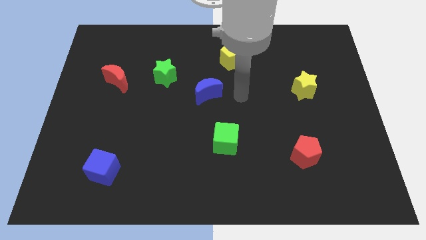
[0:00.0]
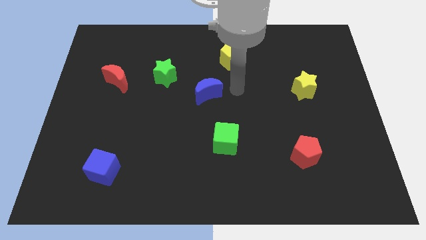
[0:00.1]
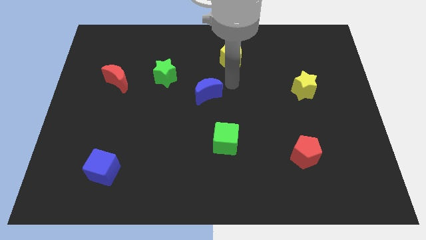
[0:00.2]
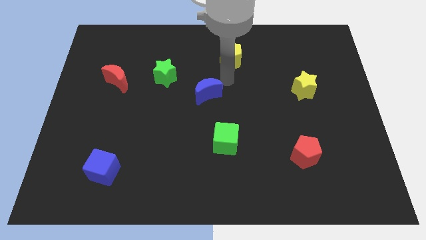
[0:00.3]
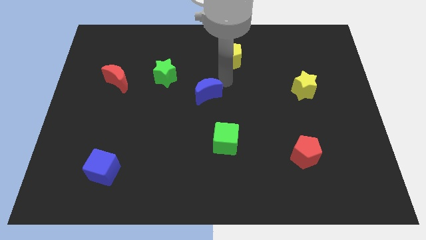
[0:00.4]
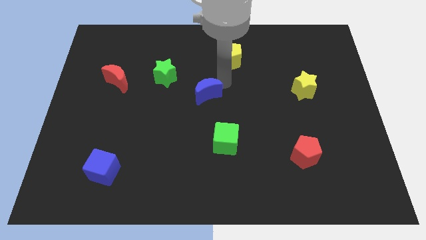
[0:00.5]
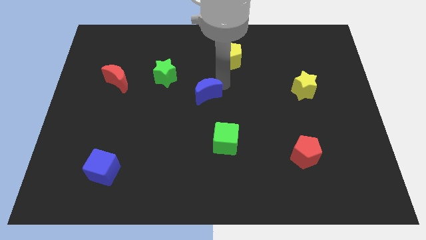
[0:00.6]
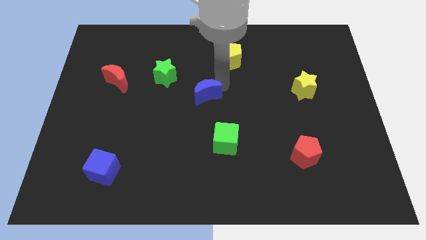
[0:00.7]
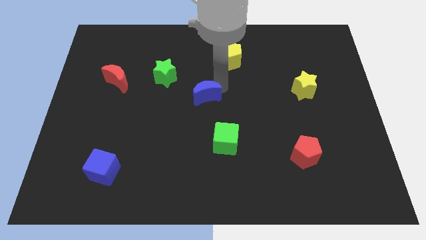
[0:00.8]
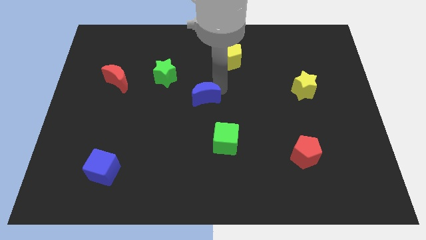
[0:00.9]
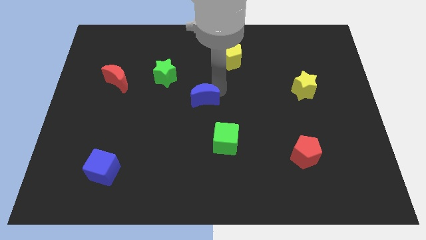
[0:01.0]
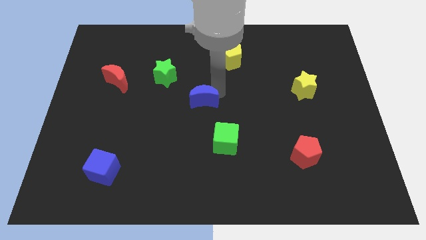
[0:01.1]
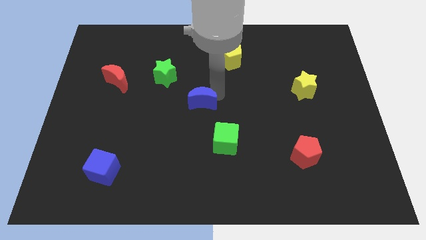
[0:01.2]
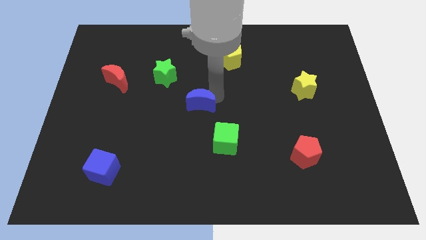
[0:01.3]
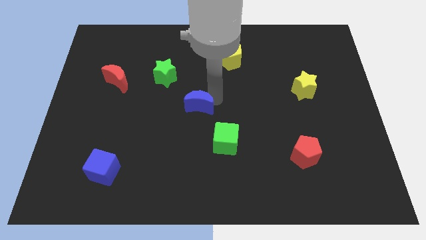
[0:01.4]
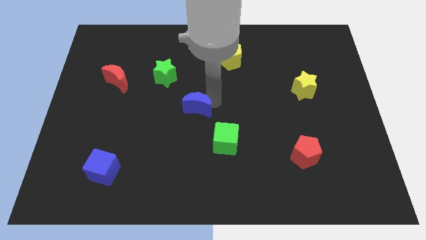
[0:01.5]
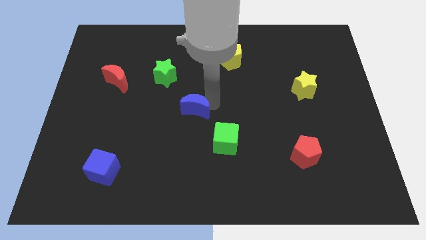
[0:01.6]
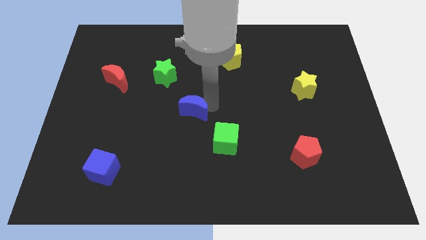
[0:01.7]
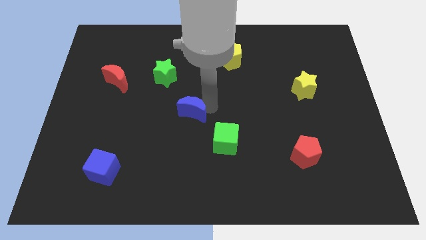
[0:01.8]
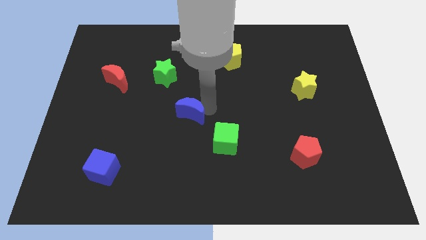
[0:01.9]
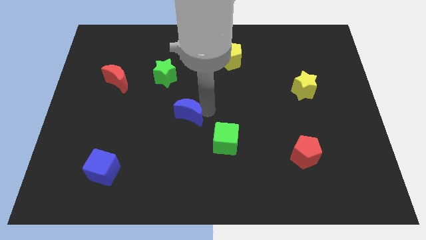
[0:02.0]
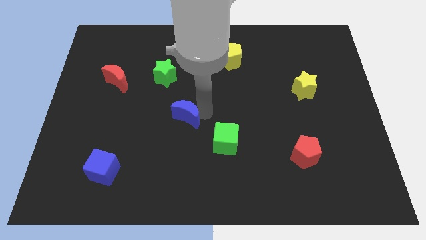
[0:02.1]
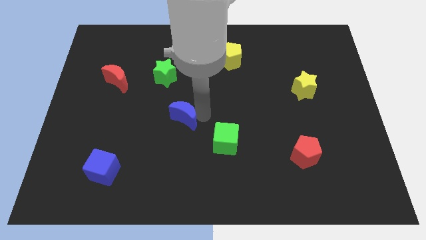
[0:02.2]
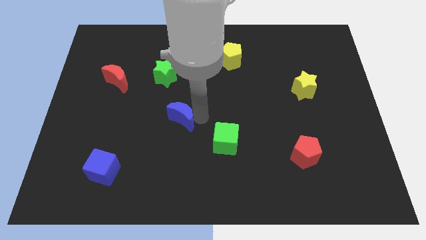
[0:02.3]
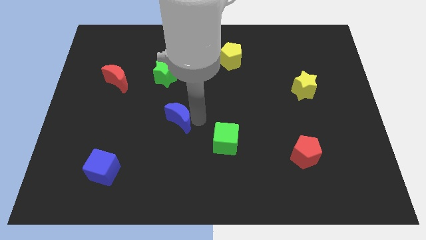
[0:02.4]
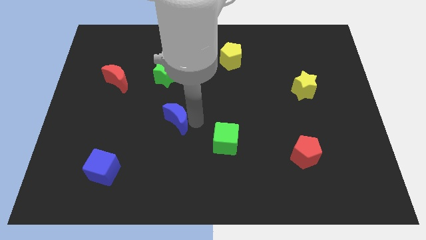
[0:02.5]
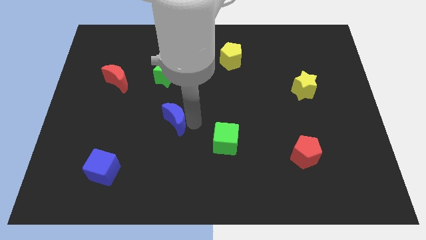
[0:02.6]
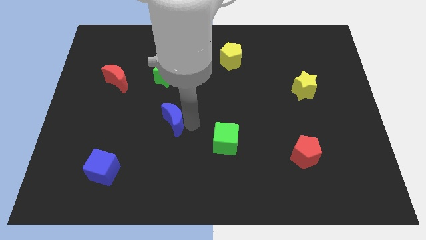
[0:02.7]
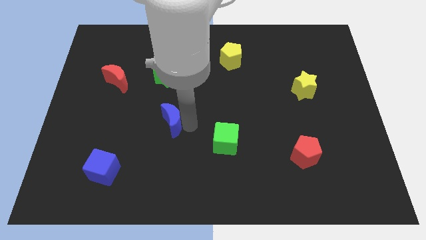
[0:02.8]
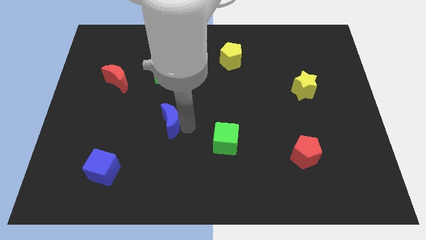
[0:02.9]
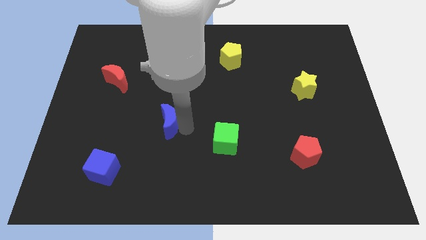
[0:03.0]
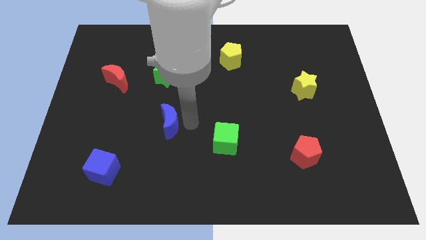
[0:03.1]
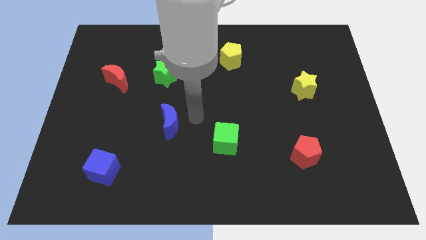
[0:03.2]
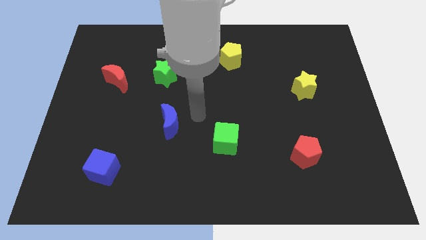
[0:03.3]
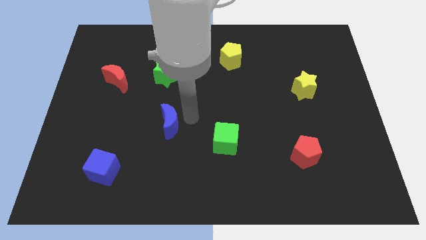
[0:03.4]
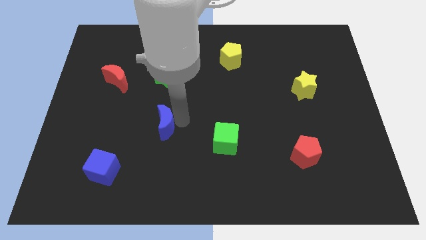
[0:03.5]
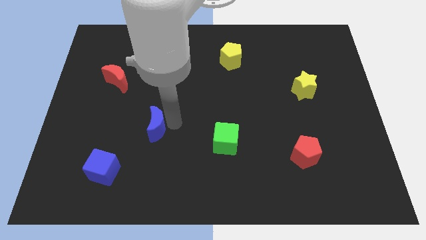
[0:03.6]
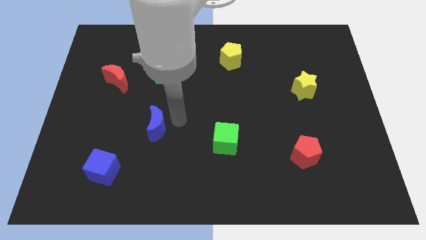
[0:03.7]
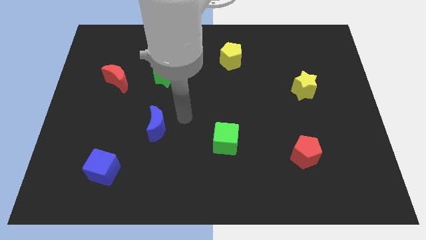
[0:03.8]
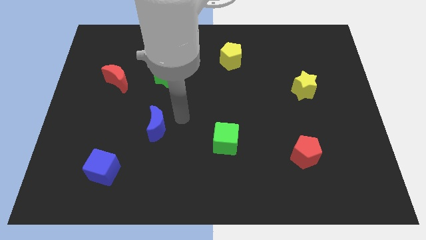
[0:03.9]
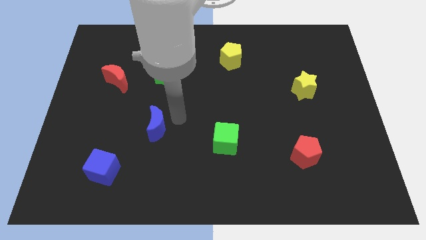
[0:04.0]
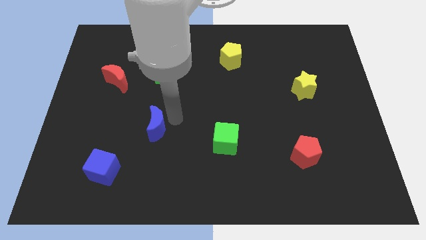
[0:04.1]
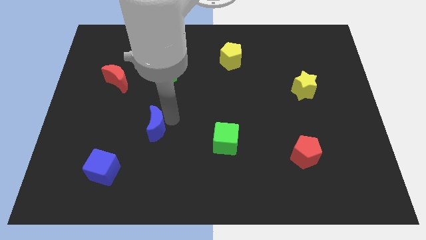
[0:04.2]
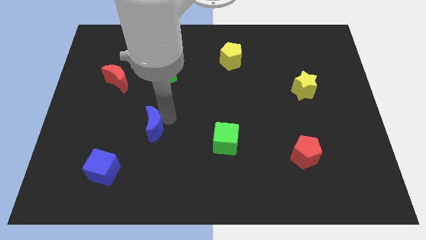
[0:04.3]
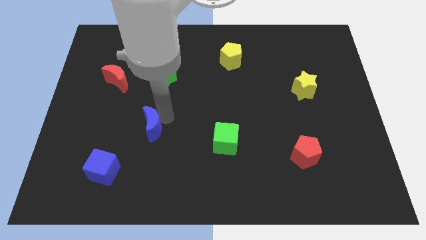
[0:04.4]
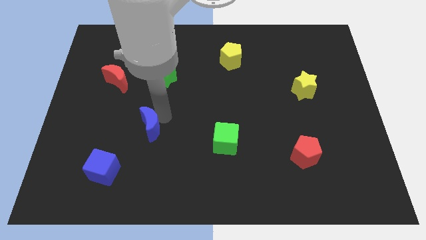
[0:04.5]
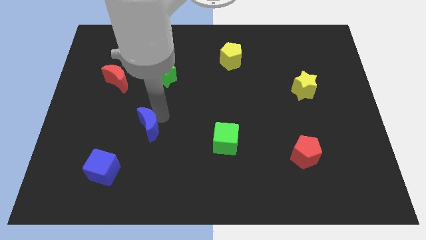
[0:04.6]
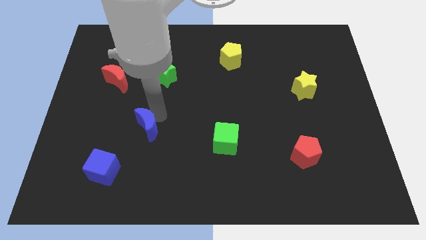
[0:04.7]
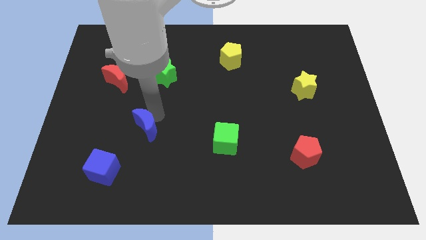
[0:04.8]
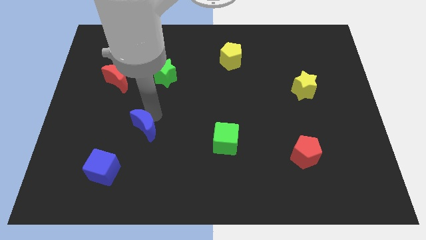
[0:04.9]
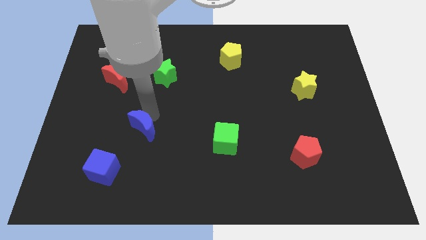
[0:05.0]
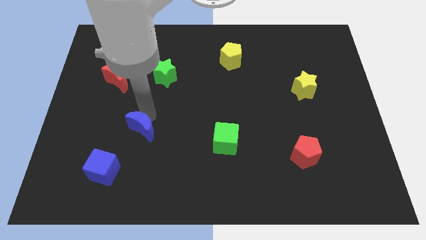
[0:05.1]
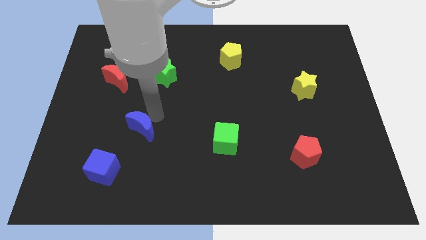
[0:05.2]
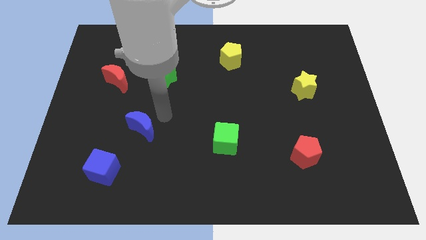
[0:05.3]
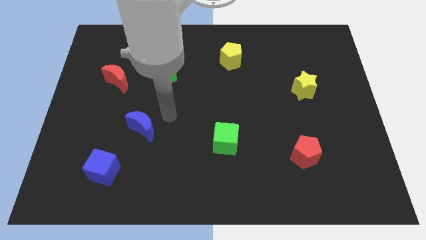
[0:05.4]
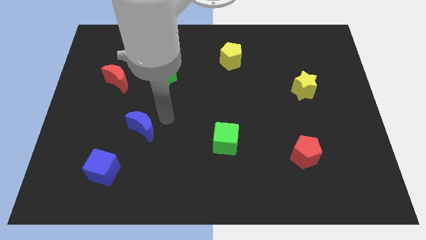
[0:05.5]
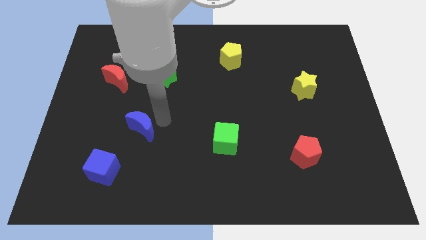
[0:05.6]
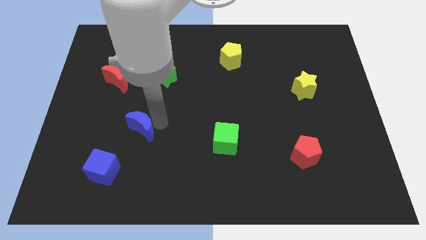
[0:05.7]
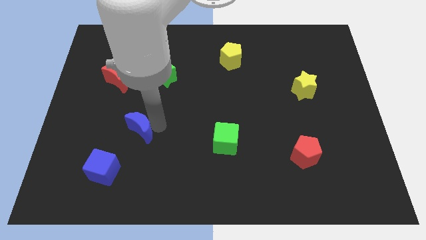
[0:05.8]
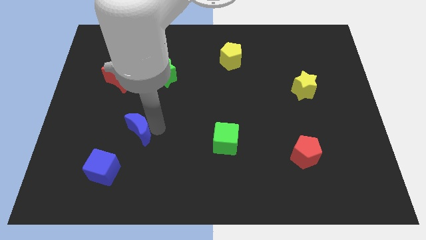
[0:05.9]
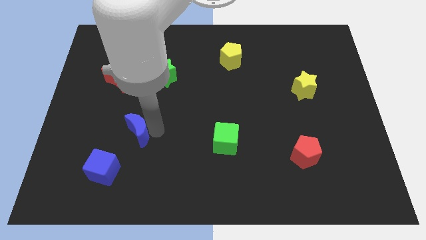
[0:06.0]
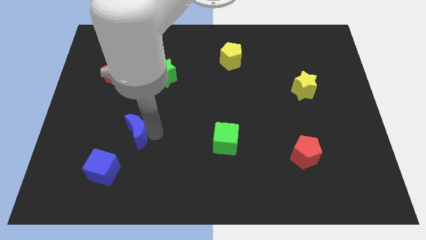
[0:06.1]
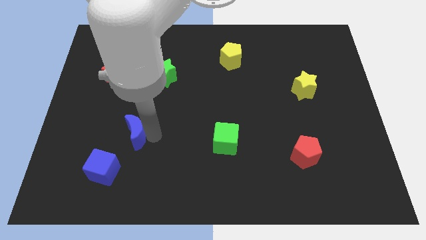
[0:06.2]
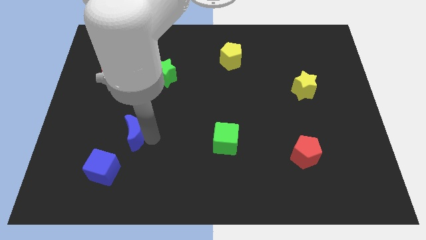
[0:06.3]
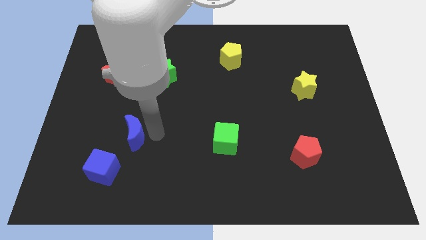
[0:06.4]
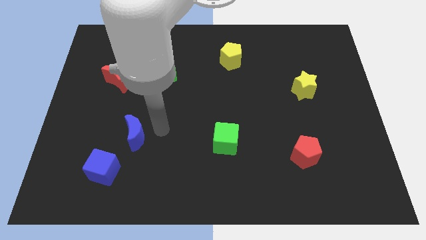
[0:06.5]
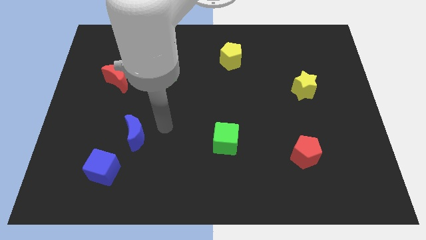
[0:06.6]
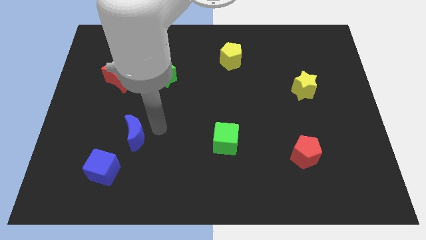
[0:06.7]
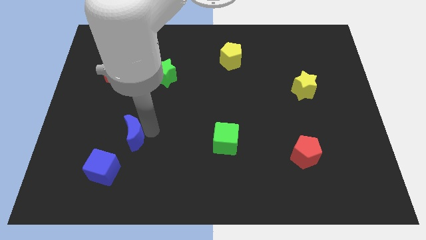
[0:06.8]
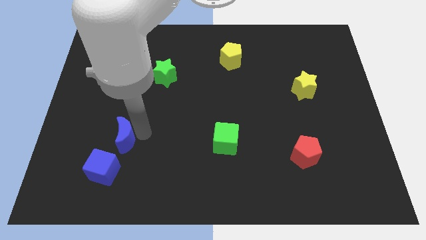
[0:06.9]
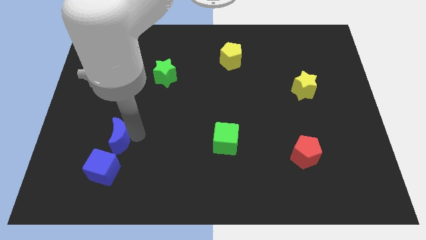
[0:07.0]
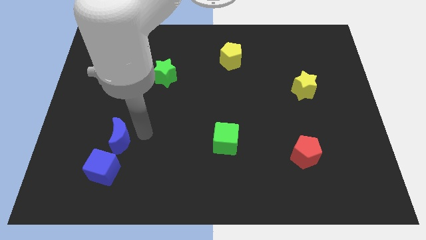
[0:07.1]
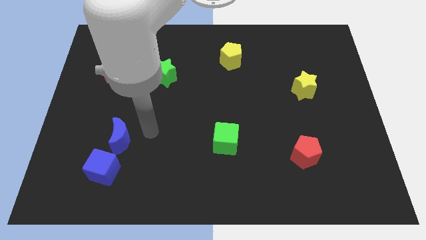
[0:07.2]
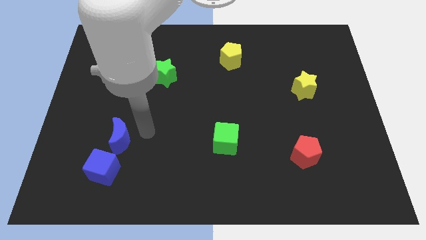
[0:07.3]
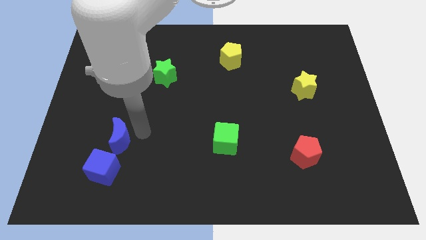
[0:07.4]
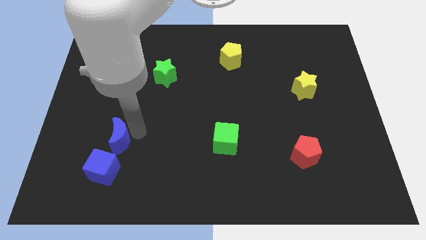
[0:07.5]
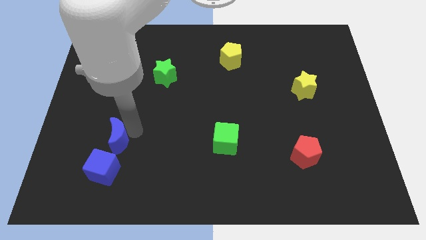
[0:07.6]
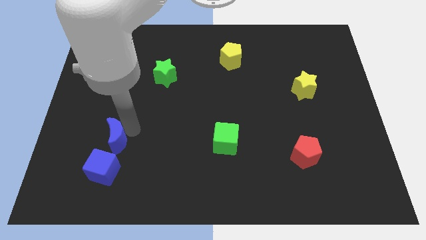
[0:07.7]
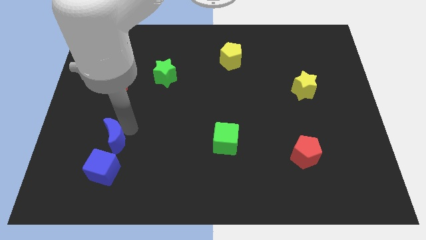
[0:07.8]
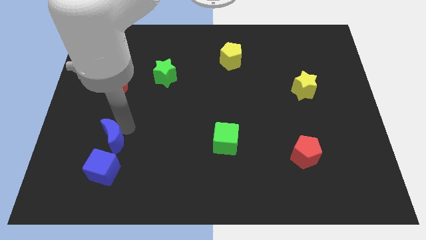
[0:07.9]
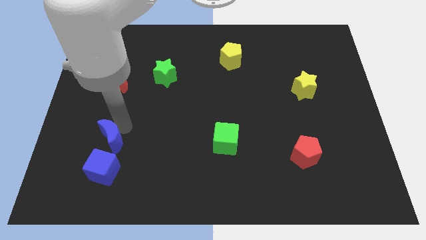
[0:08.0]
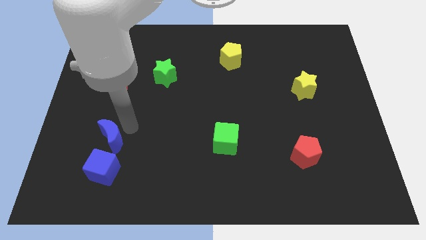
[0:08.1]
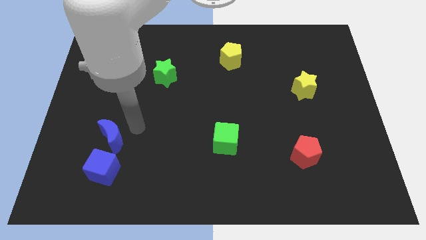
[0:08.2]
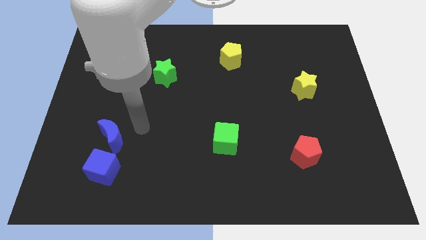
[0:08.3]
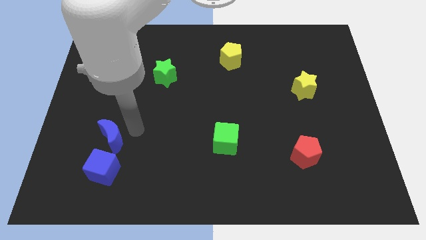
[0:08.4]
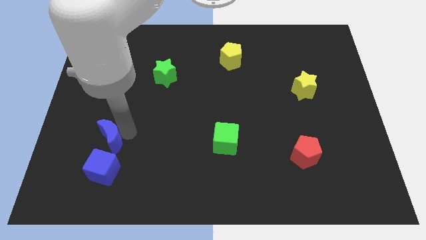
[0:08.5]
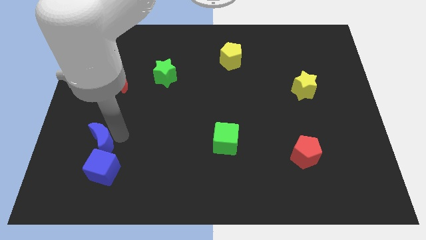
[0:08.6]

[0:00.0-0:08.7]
put the blue moon diagonally up and to the left of the blue cube
